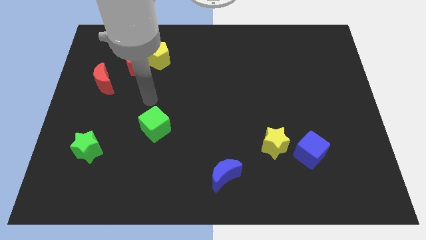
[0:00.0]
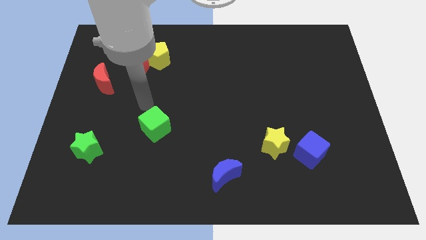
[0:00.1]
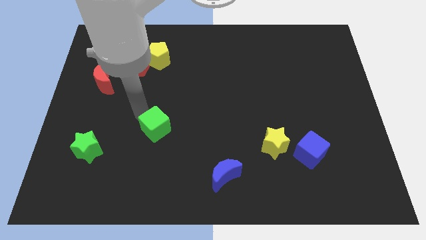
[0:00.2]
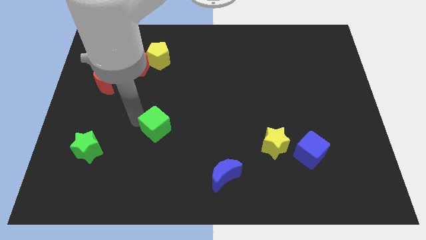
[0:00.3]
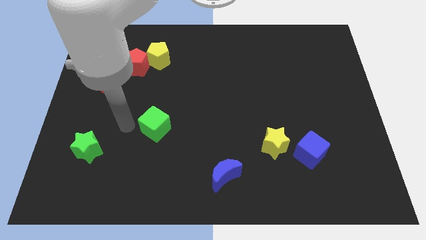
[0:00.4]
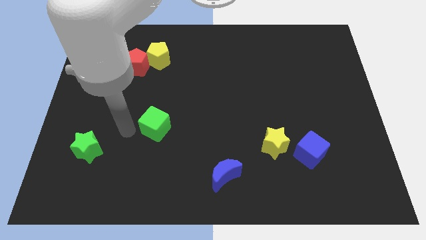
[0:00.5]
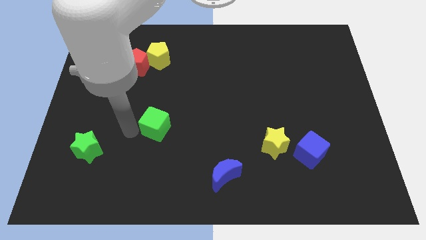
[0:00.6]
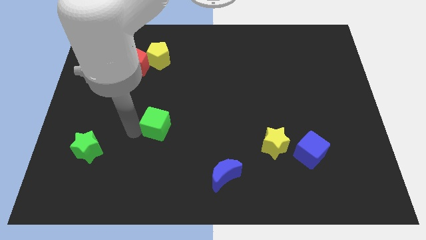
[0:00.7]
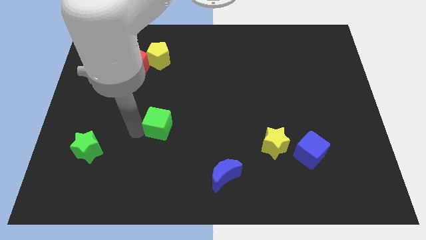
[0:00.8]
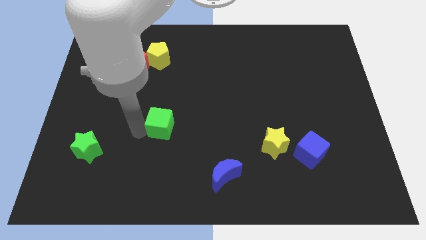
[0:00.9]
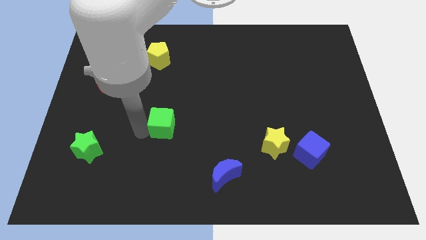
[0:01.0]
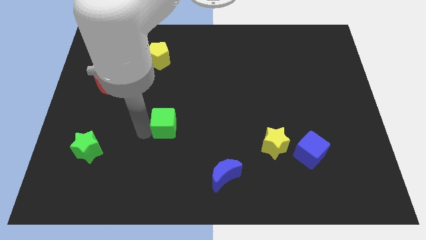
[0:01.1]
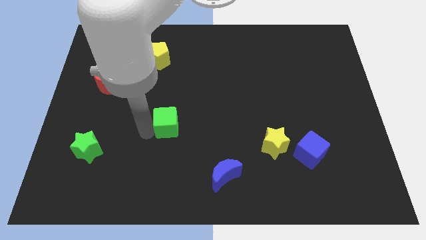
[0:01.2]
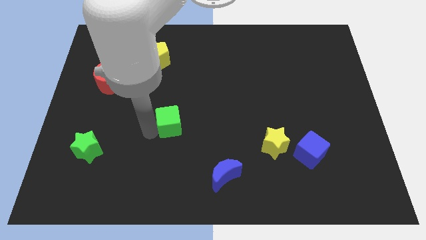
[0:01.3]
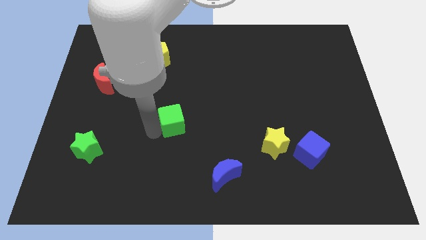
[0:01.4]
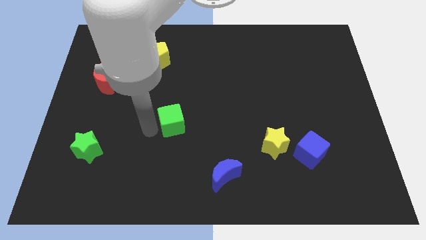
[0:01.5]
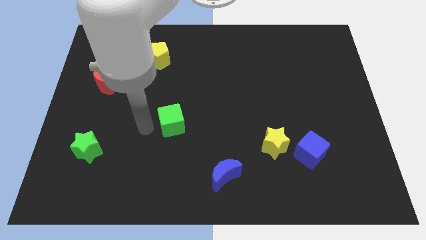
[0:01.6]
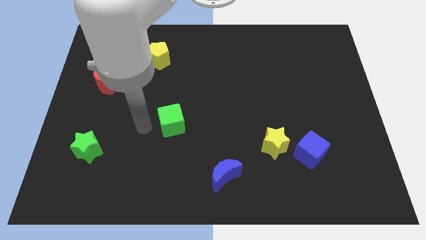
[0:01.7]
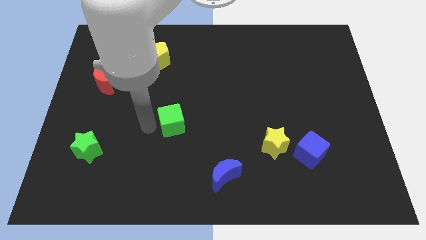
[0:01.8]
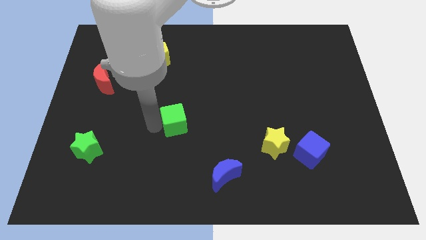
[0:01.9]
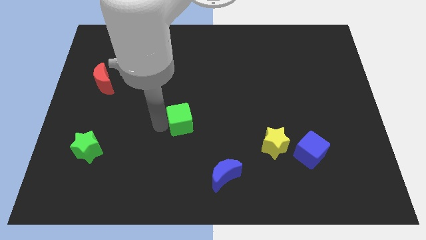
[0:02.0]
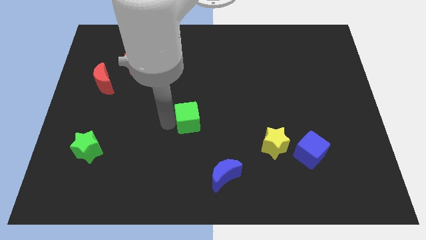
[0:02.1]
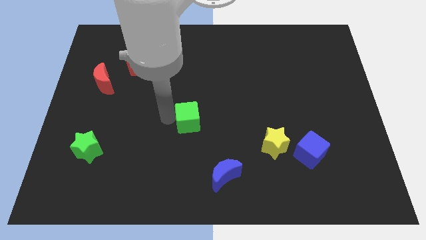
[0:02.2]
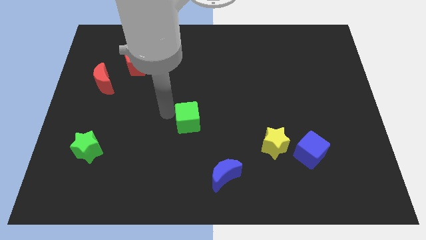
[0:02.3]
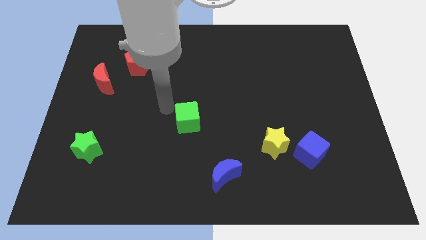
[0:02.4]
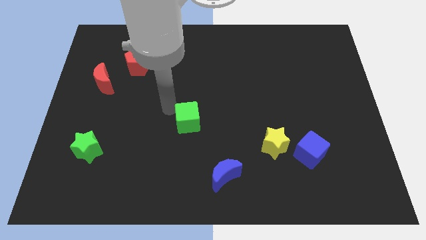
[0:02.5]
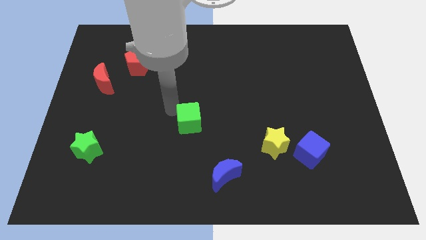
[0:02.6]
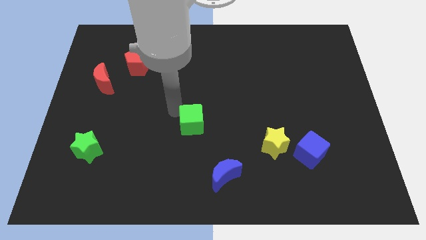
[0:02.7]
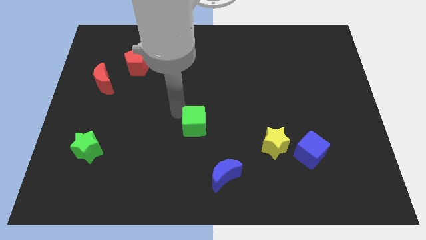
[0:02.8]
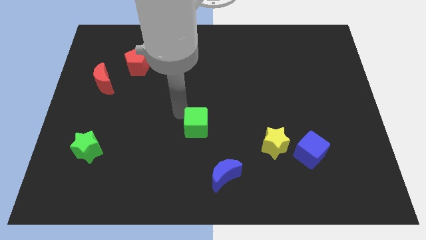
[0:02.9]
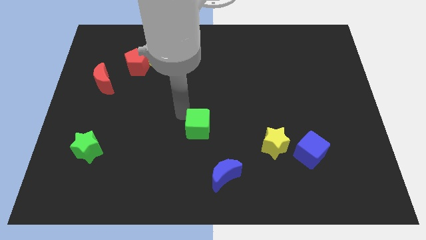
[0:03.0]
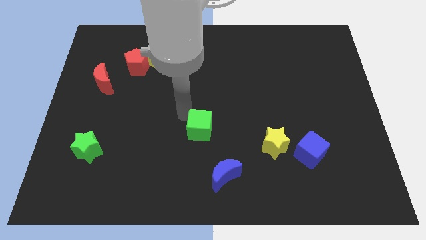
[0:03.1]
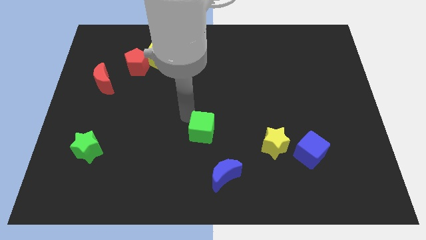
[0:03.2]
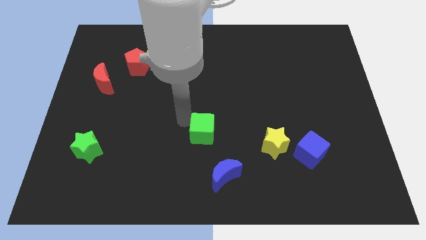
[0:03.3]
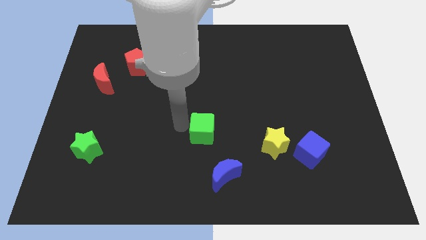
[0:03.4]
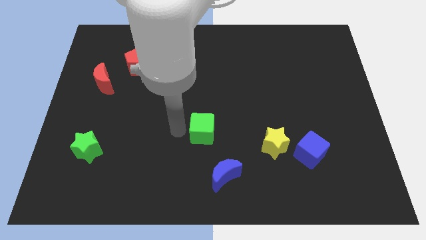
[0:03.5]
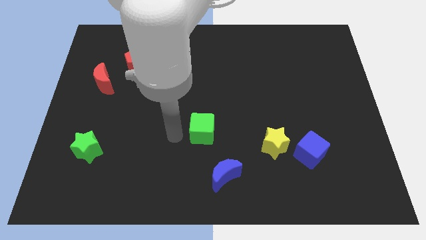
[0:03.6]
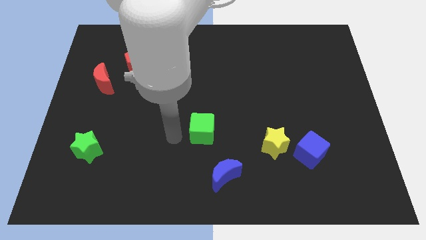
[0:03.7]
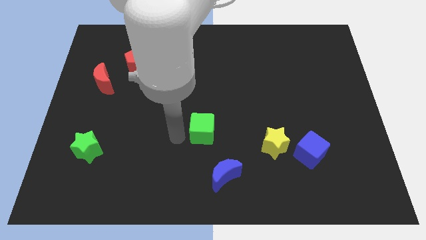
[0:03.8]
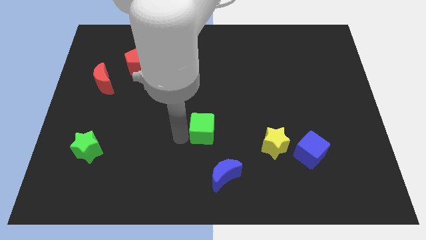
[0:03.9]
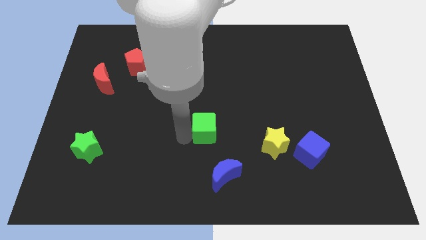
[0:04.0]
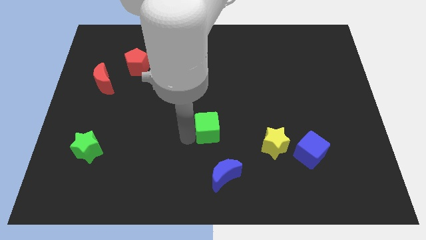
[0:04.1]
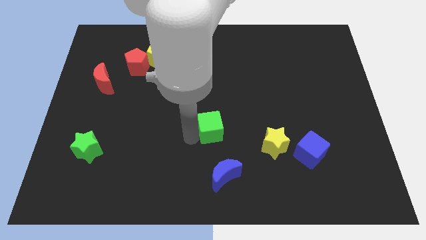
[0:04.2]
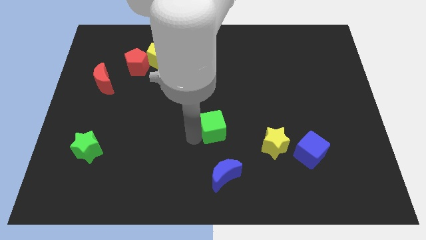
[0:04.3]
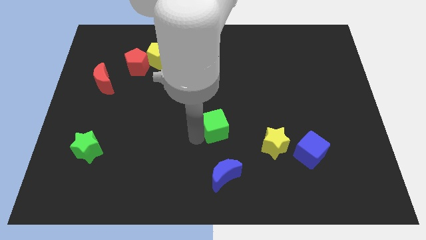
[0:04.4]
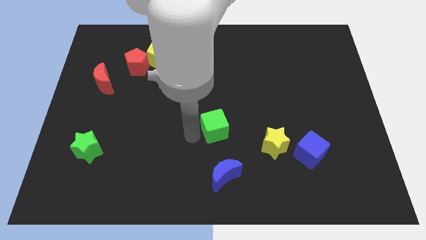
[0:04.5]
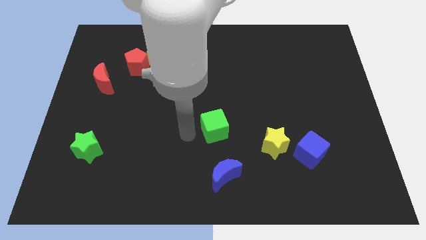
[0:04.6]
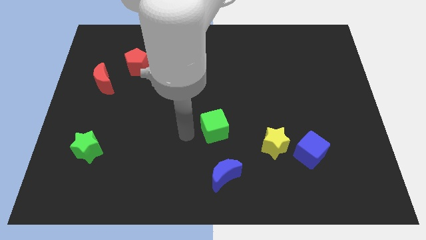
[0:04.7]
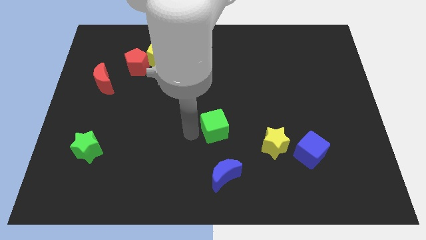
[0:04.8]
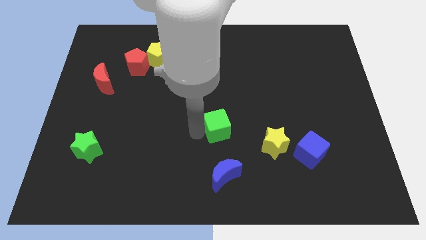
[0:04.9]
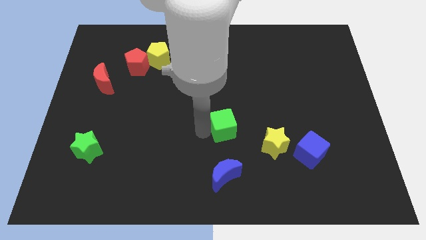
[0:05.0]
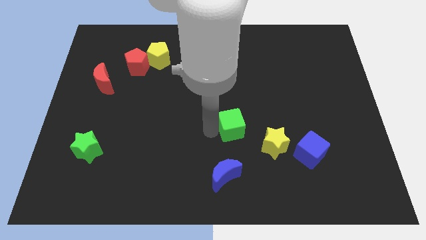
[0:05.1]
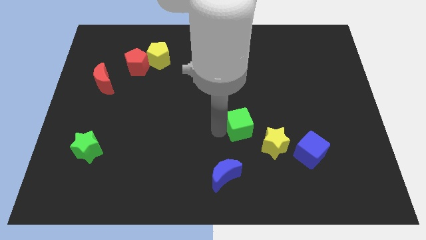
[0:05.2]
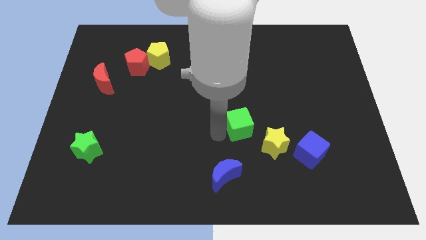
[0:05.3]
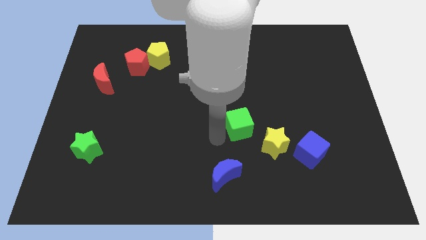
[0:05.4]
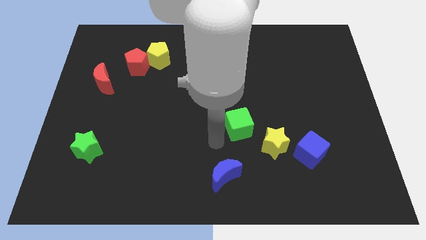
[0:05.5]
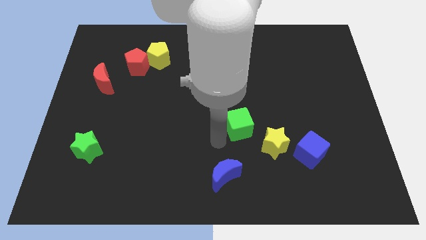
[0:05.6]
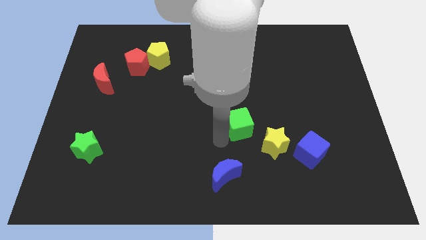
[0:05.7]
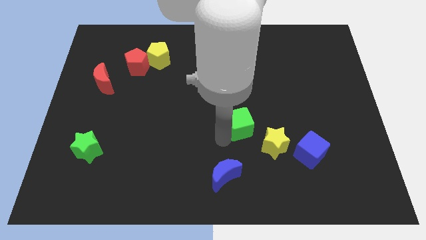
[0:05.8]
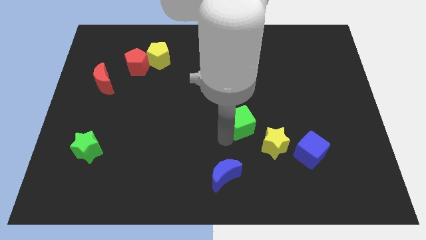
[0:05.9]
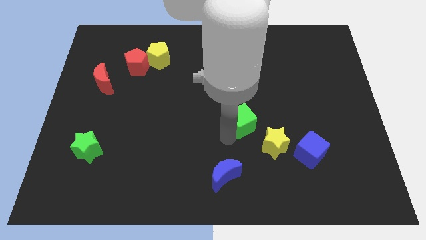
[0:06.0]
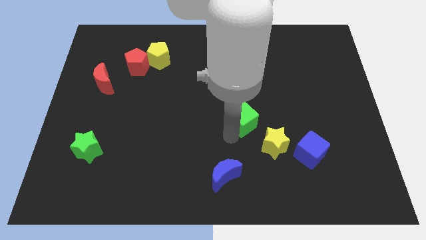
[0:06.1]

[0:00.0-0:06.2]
slide the green cube right

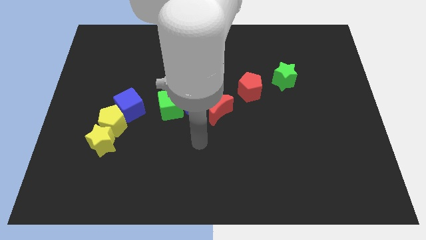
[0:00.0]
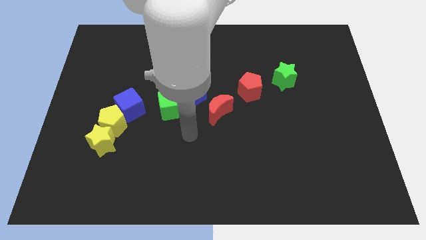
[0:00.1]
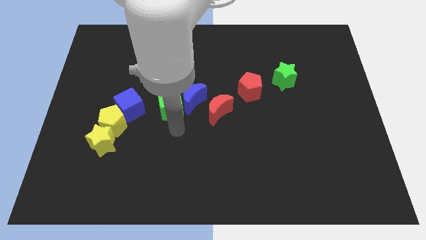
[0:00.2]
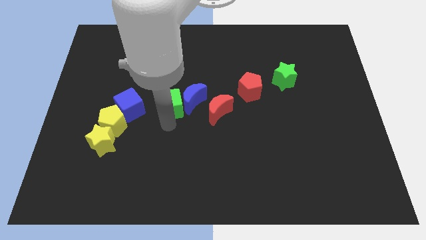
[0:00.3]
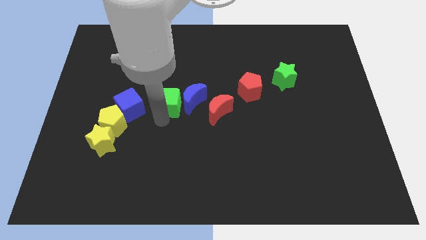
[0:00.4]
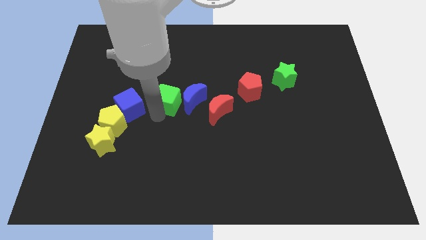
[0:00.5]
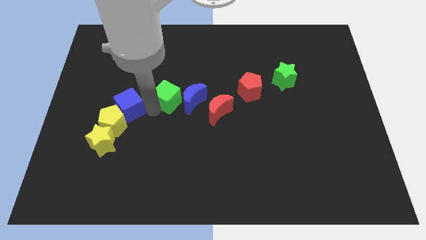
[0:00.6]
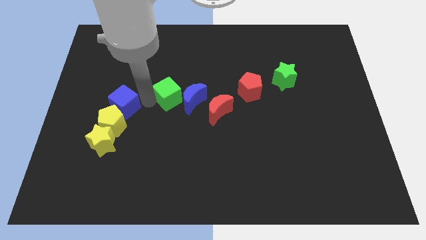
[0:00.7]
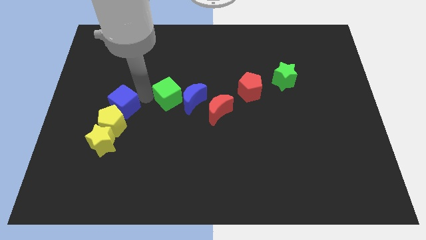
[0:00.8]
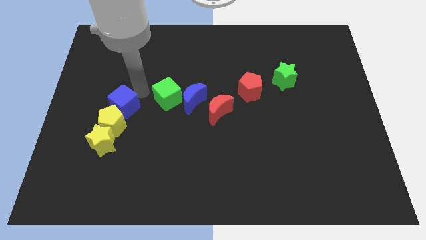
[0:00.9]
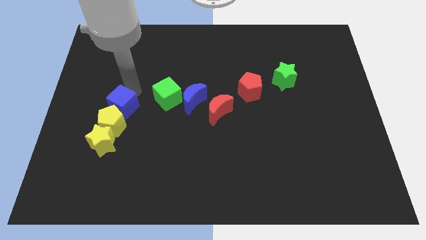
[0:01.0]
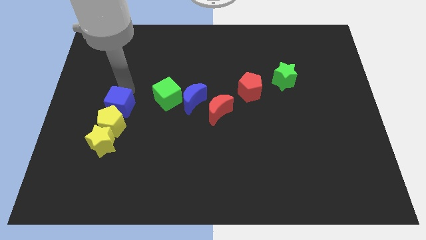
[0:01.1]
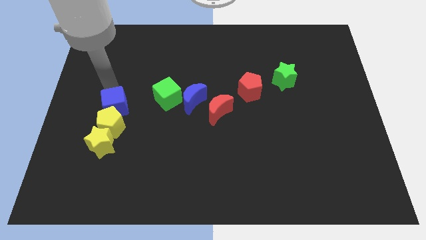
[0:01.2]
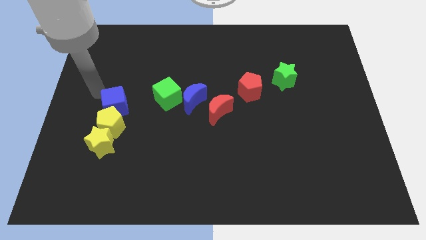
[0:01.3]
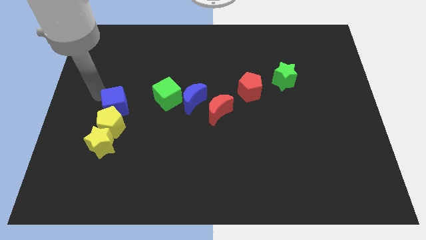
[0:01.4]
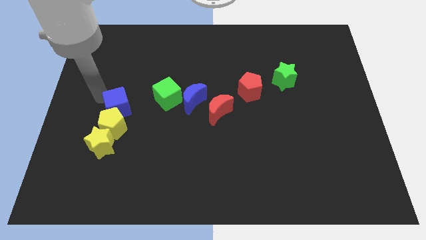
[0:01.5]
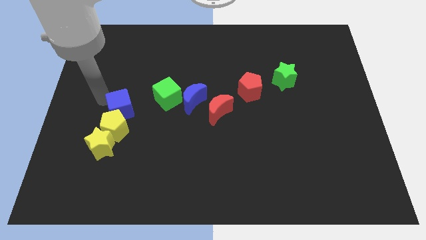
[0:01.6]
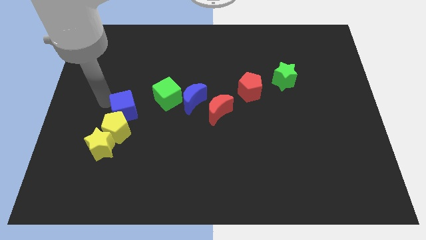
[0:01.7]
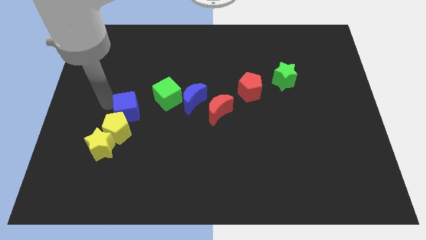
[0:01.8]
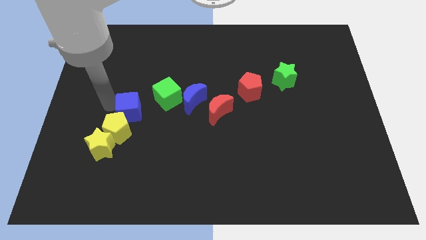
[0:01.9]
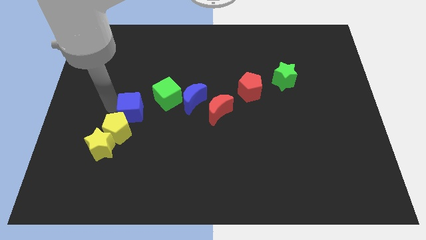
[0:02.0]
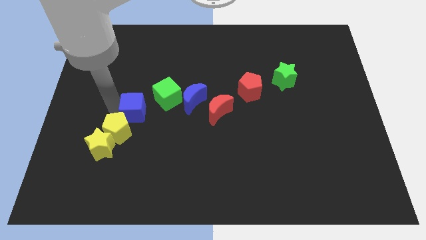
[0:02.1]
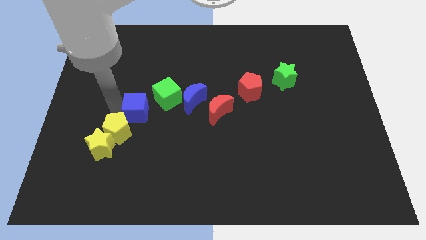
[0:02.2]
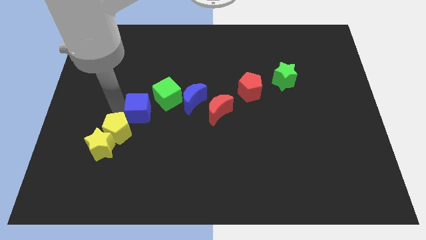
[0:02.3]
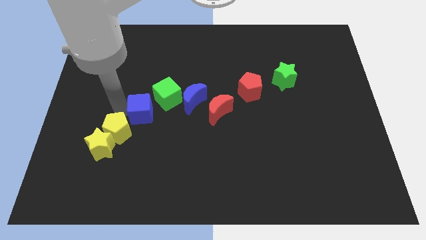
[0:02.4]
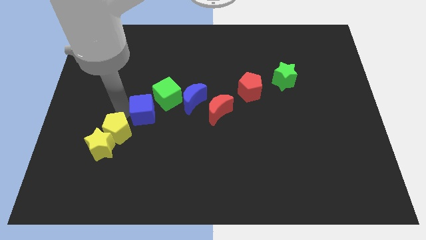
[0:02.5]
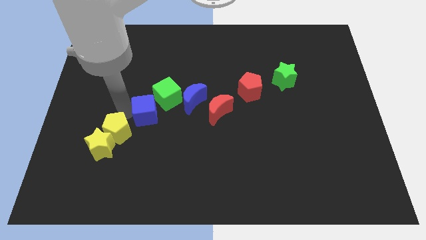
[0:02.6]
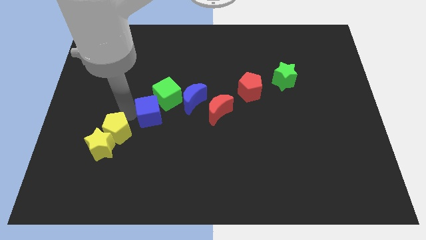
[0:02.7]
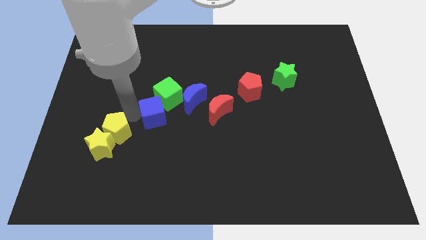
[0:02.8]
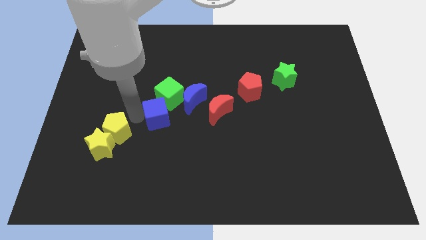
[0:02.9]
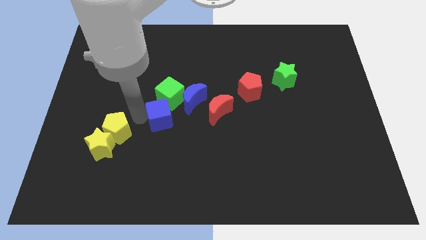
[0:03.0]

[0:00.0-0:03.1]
move the blue cube downwards and then right a bit
